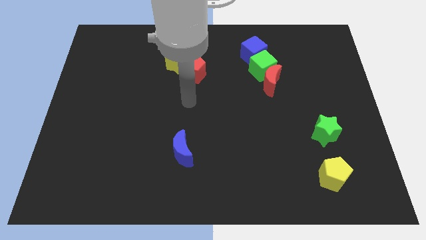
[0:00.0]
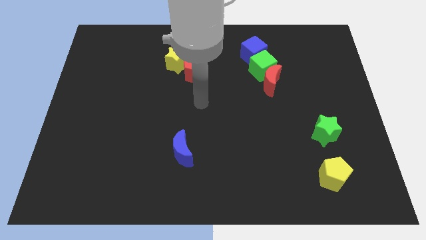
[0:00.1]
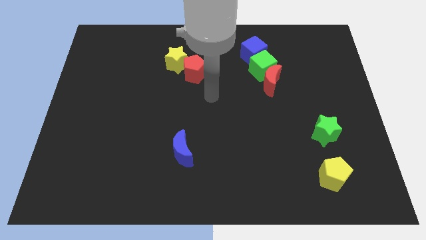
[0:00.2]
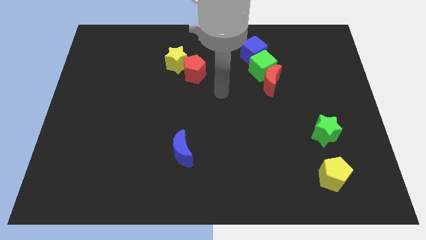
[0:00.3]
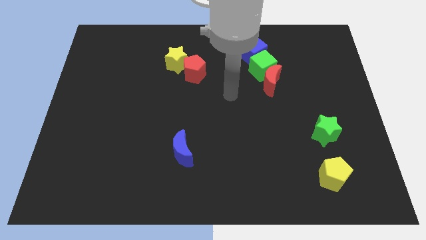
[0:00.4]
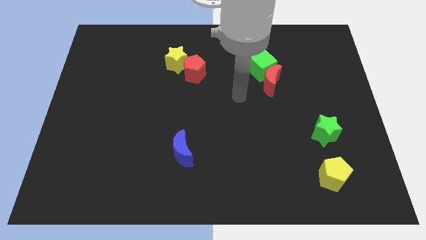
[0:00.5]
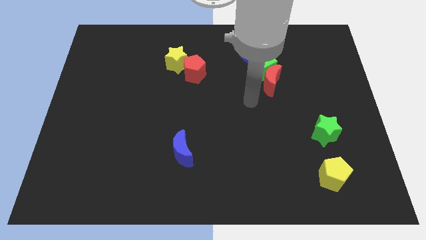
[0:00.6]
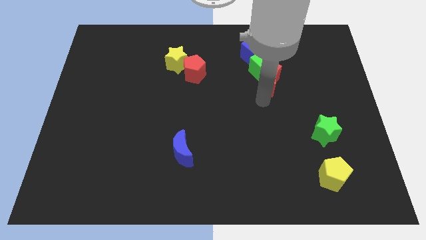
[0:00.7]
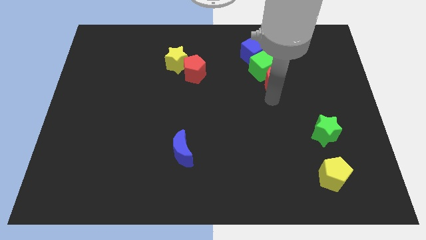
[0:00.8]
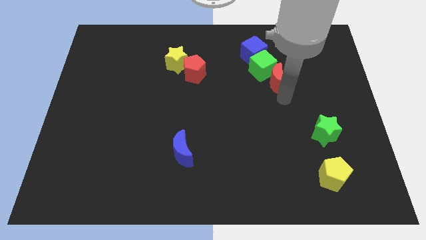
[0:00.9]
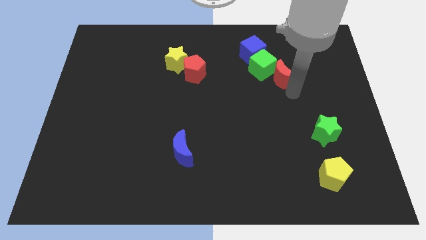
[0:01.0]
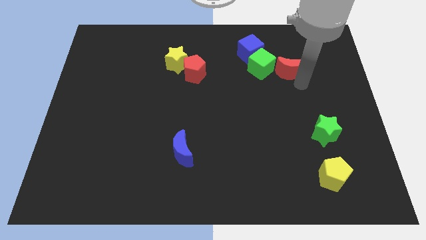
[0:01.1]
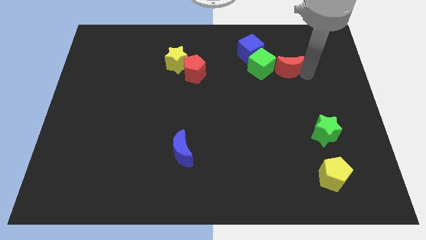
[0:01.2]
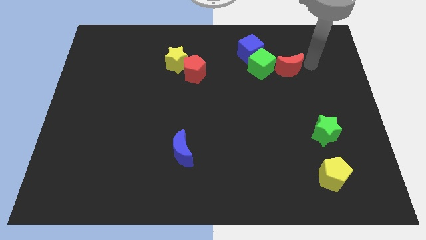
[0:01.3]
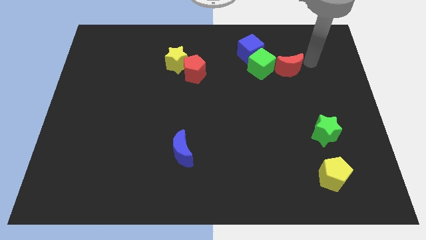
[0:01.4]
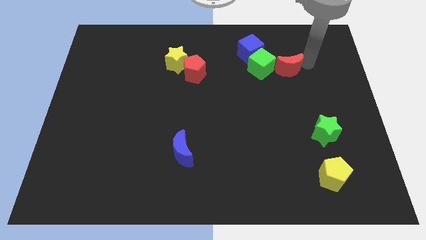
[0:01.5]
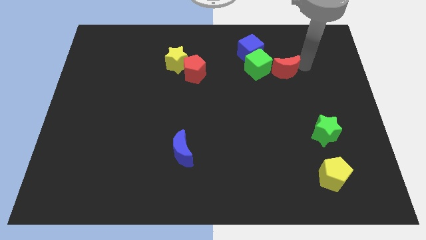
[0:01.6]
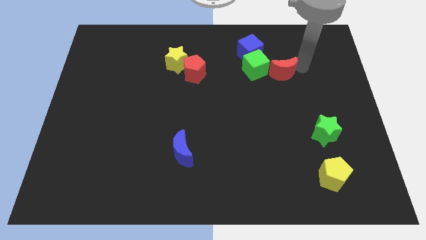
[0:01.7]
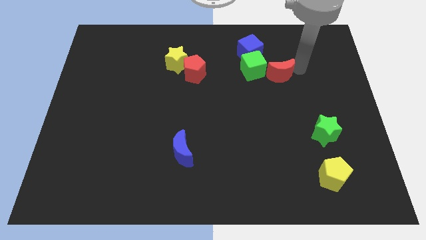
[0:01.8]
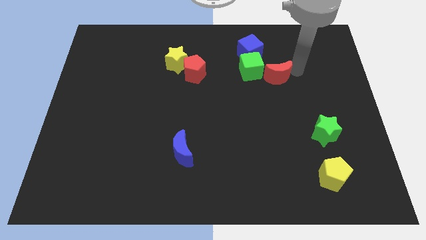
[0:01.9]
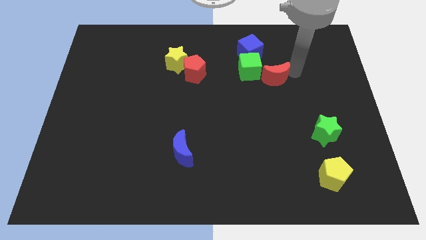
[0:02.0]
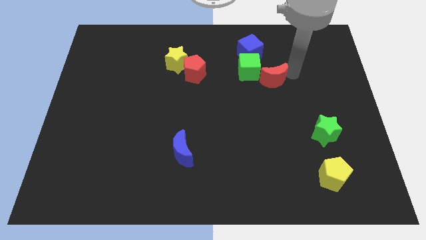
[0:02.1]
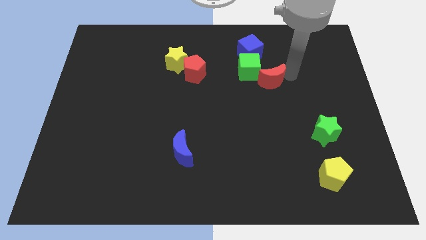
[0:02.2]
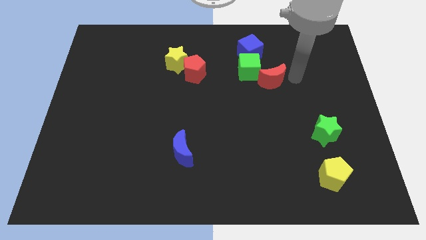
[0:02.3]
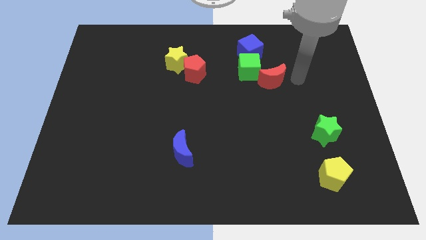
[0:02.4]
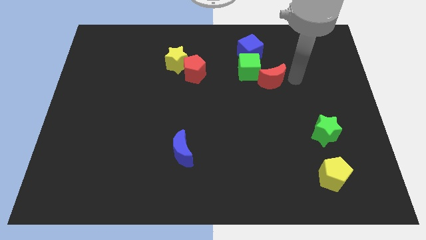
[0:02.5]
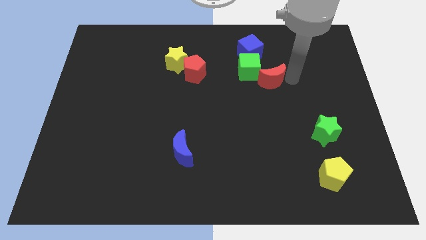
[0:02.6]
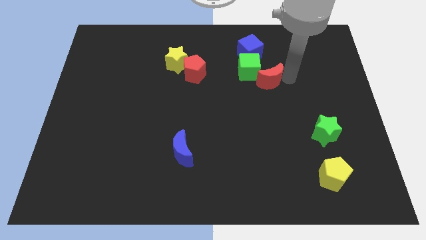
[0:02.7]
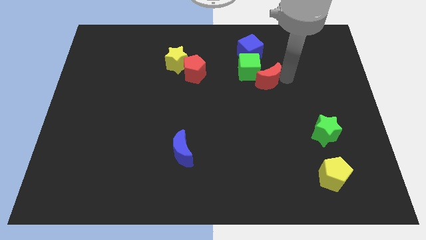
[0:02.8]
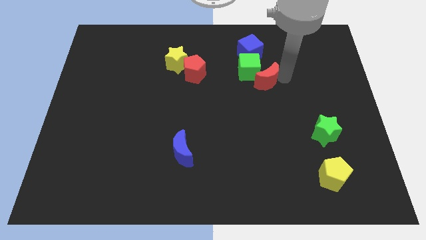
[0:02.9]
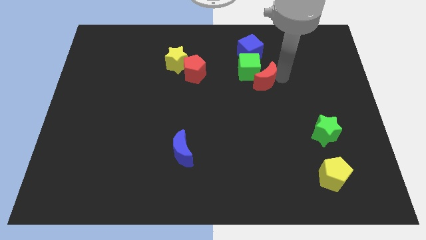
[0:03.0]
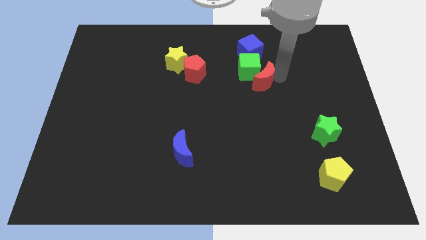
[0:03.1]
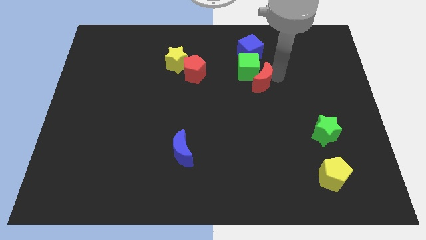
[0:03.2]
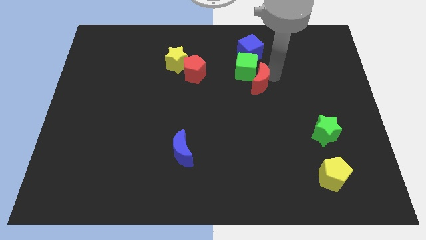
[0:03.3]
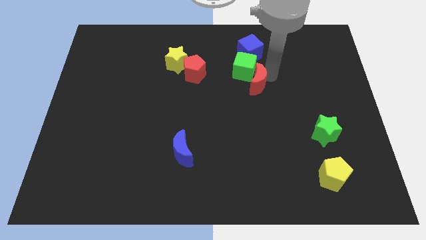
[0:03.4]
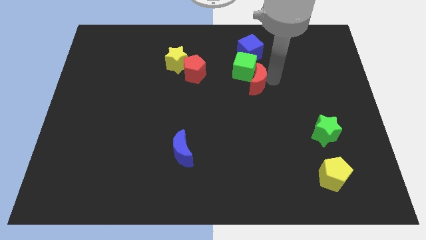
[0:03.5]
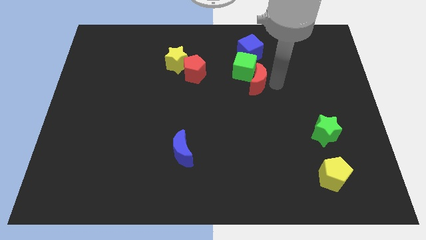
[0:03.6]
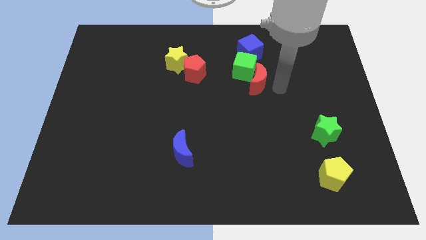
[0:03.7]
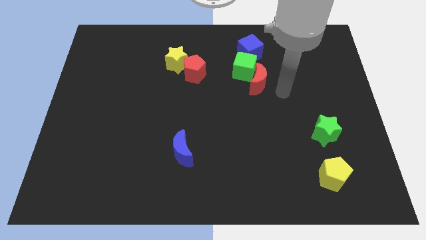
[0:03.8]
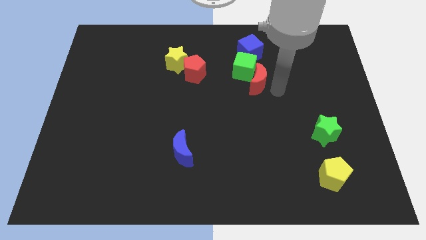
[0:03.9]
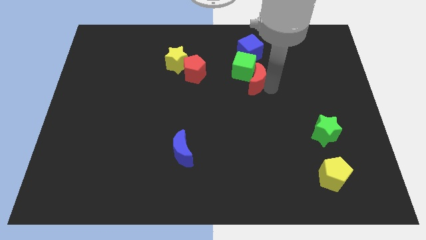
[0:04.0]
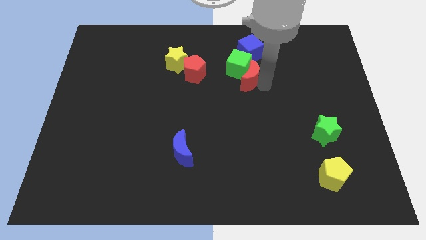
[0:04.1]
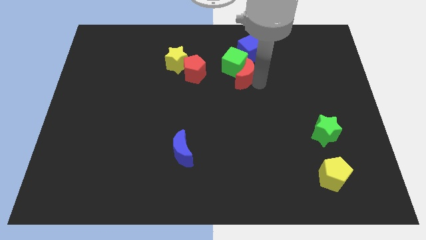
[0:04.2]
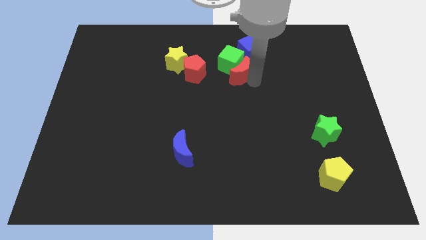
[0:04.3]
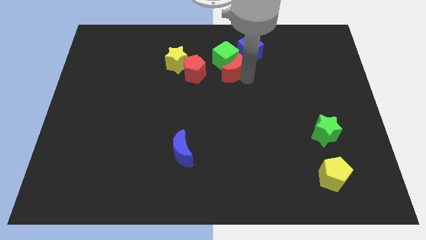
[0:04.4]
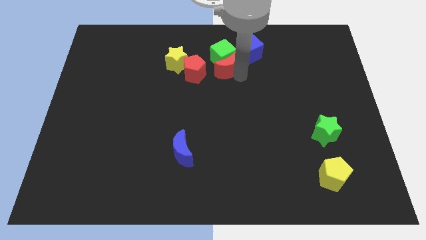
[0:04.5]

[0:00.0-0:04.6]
push the red moon to the right side of the yellow star

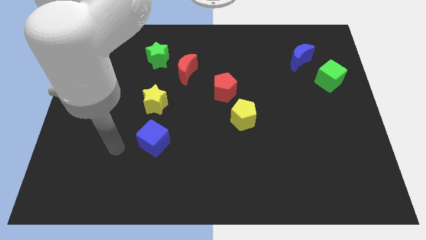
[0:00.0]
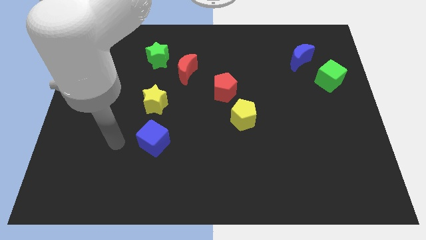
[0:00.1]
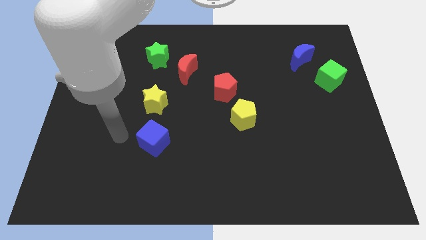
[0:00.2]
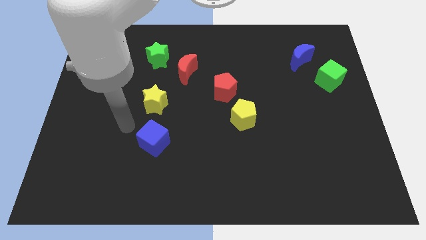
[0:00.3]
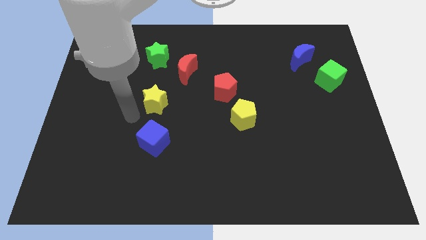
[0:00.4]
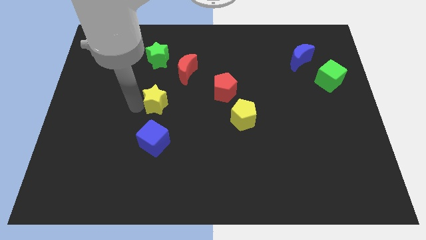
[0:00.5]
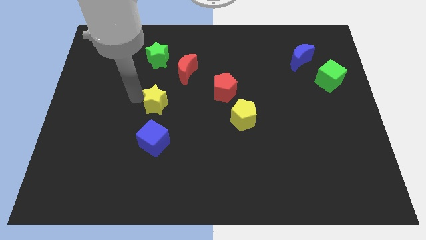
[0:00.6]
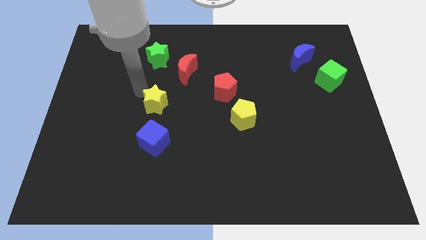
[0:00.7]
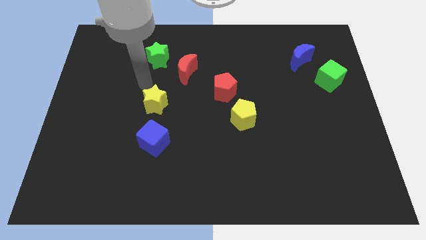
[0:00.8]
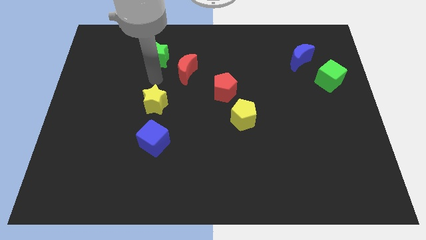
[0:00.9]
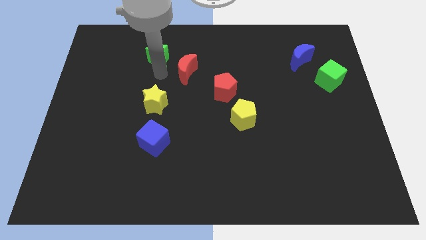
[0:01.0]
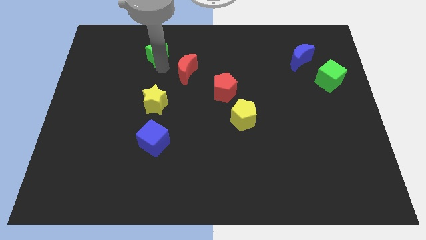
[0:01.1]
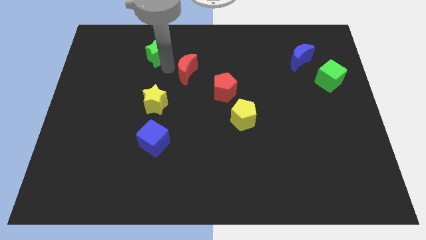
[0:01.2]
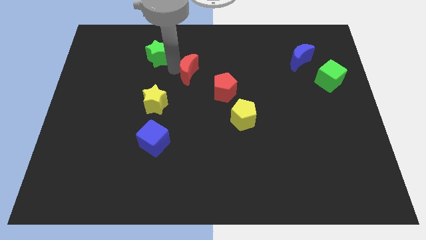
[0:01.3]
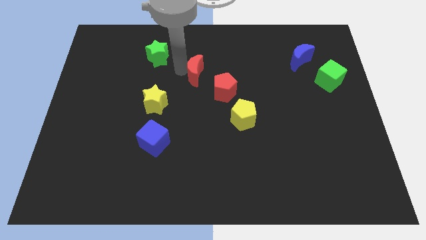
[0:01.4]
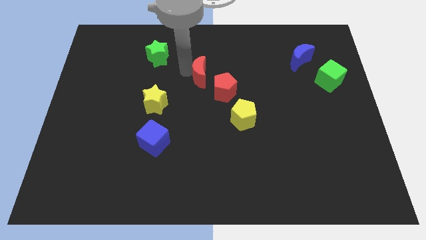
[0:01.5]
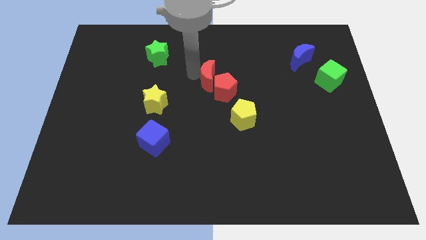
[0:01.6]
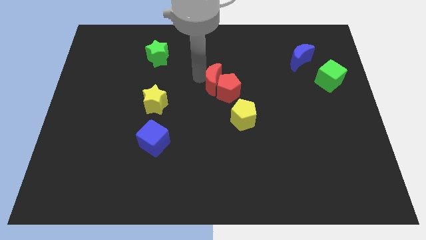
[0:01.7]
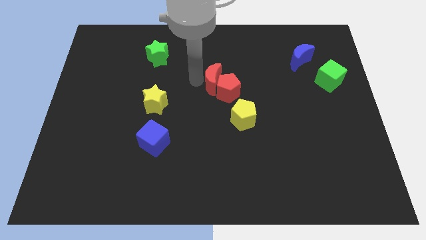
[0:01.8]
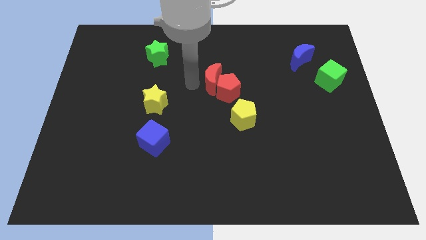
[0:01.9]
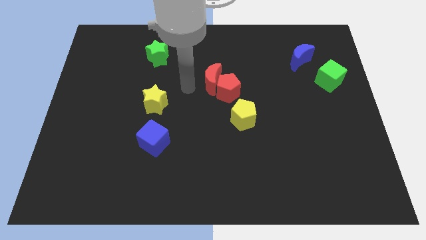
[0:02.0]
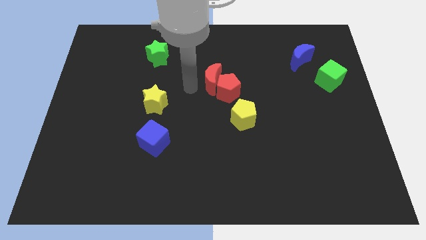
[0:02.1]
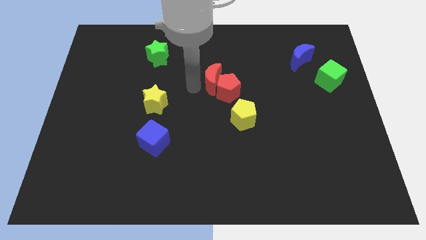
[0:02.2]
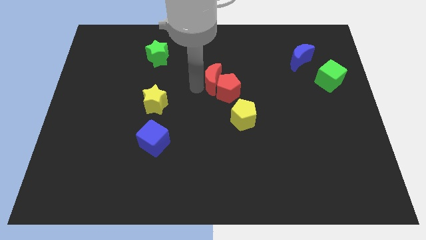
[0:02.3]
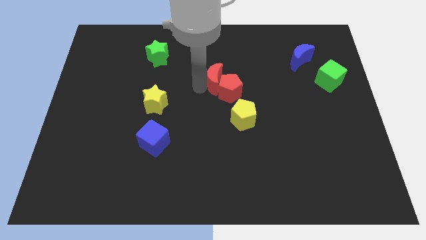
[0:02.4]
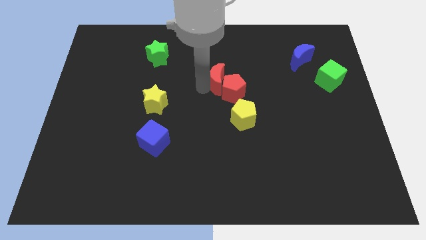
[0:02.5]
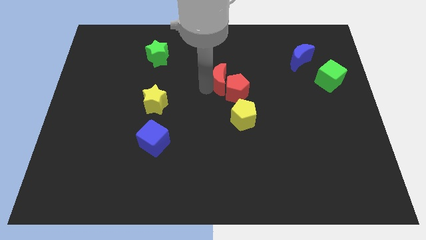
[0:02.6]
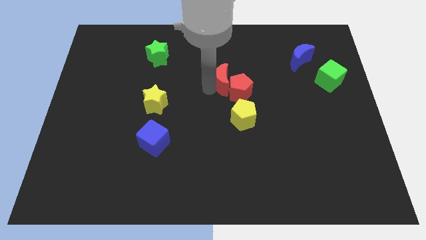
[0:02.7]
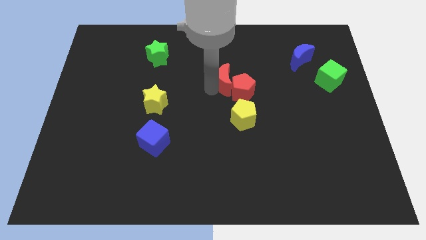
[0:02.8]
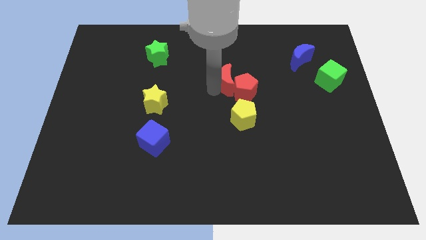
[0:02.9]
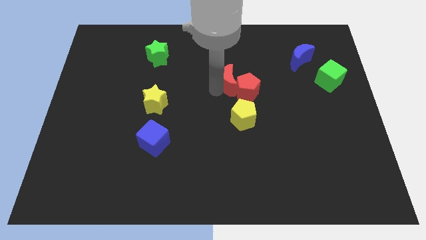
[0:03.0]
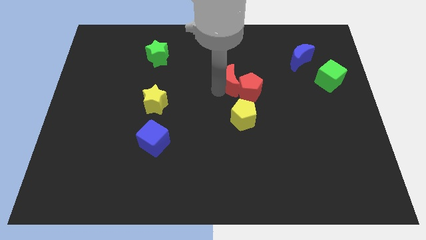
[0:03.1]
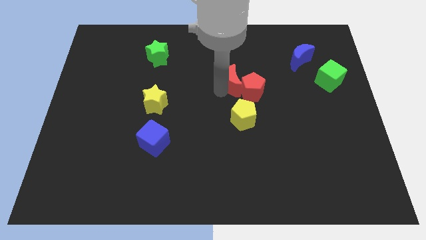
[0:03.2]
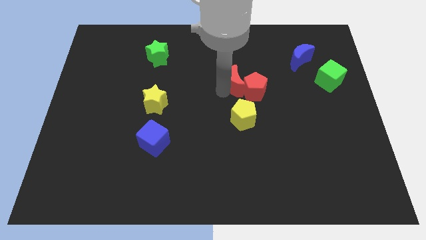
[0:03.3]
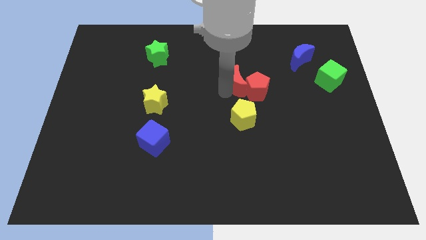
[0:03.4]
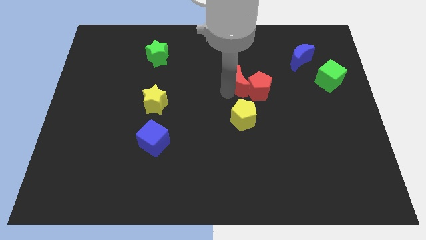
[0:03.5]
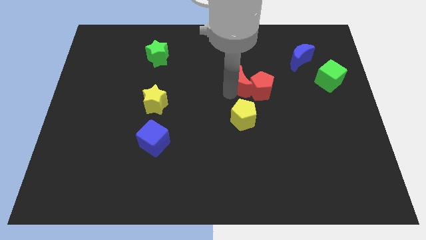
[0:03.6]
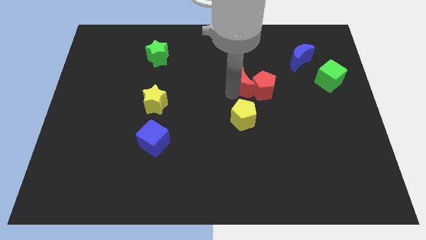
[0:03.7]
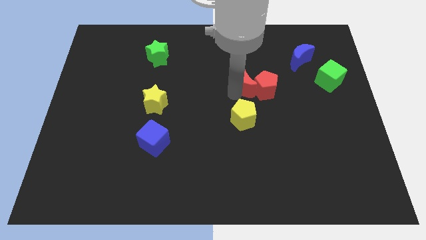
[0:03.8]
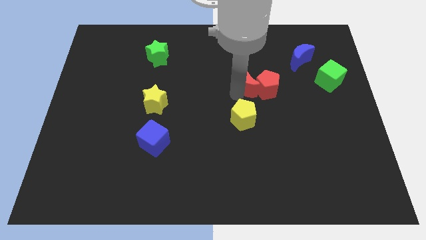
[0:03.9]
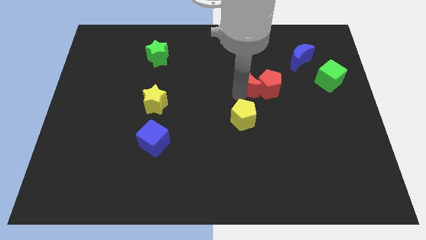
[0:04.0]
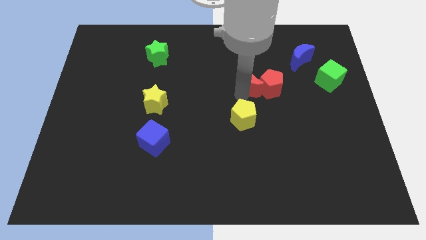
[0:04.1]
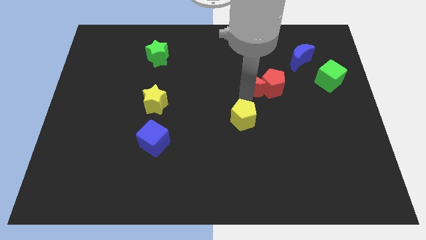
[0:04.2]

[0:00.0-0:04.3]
slide the red moon to the top right side of the yellow pentagon
